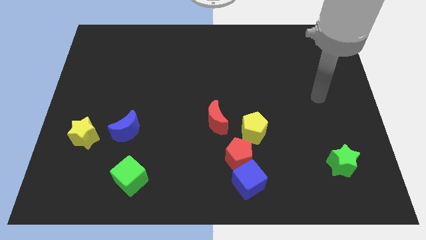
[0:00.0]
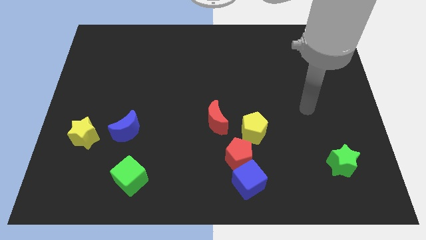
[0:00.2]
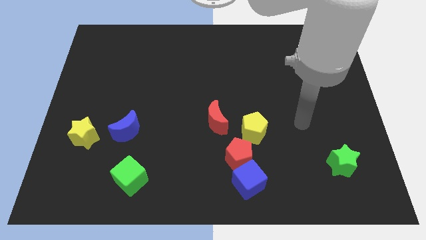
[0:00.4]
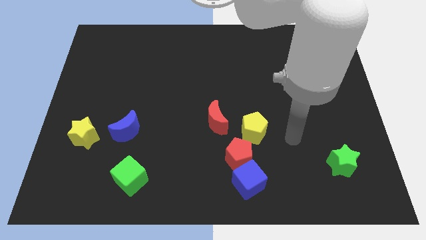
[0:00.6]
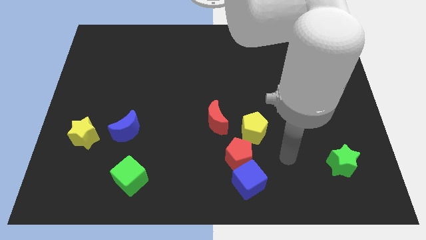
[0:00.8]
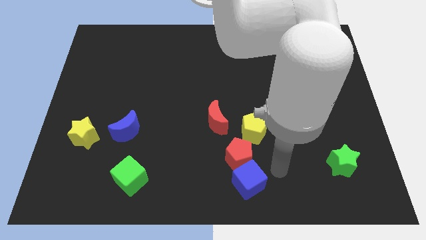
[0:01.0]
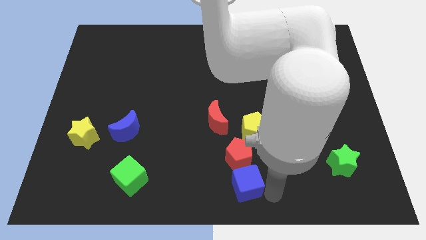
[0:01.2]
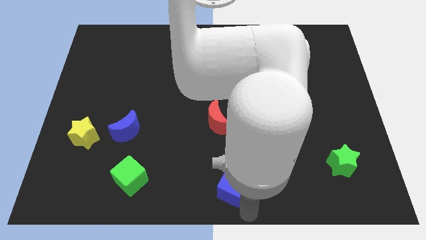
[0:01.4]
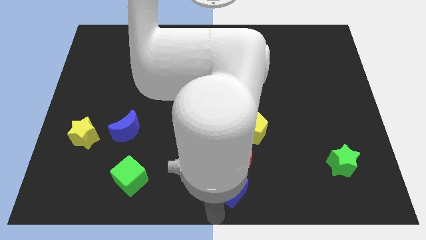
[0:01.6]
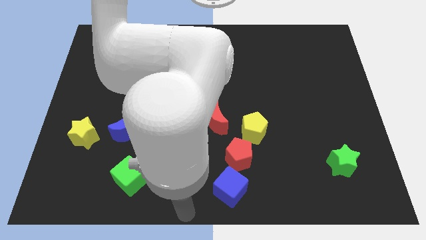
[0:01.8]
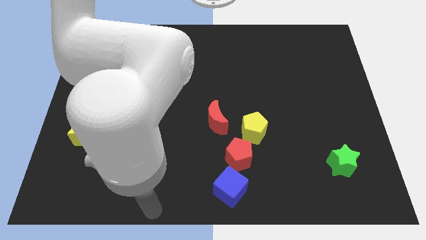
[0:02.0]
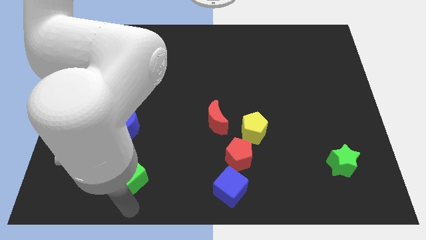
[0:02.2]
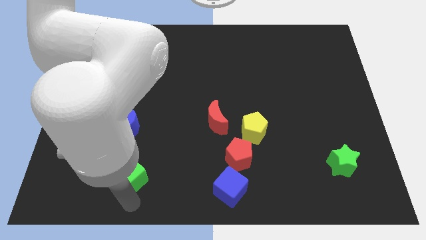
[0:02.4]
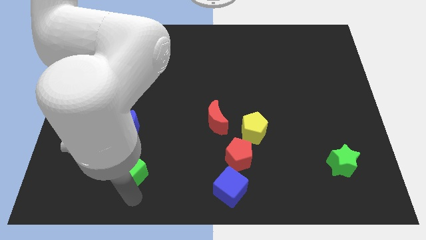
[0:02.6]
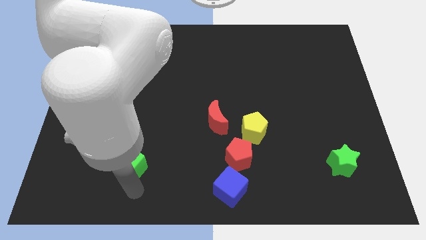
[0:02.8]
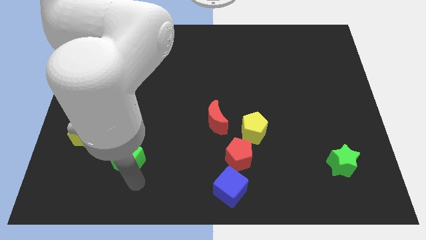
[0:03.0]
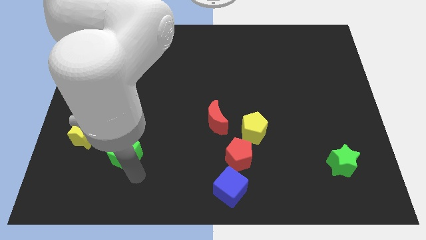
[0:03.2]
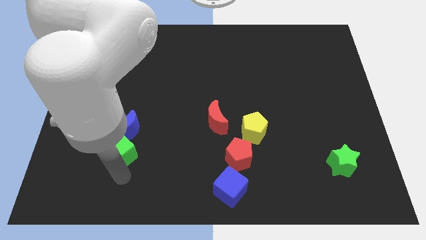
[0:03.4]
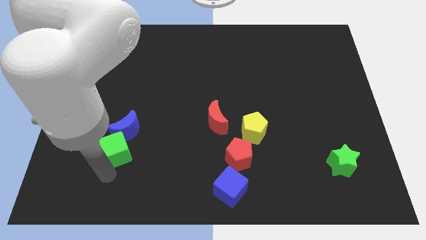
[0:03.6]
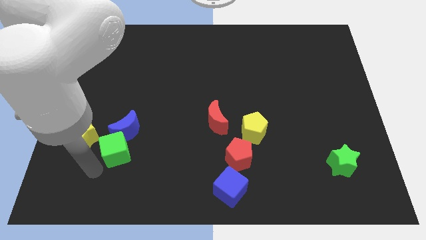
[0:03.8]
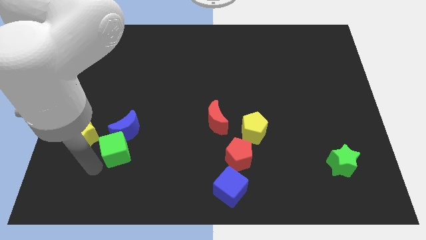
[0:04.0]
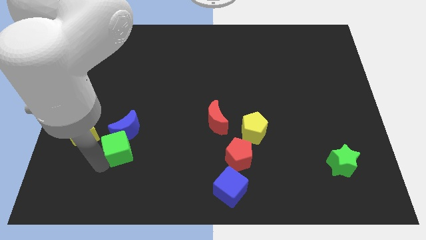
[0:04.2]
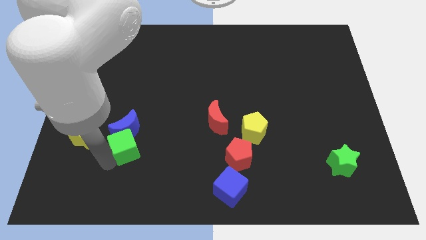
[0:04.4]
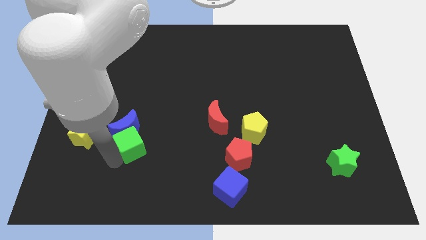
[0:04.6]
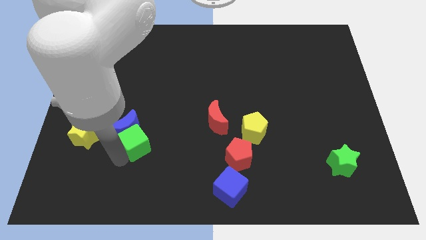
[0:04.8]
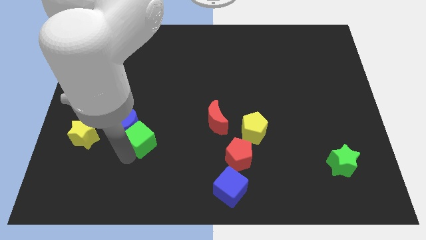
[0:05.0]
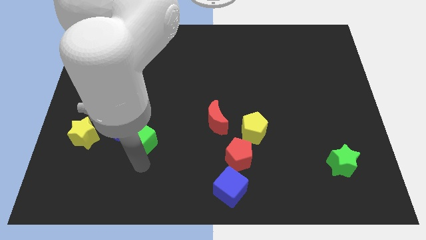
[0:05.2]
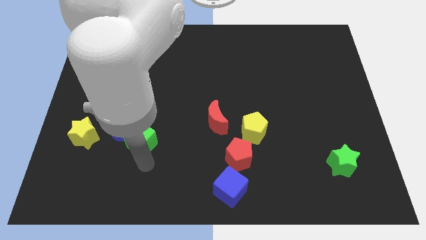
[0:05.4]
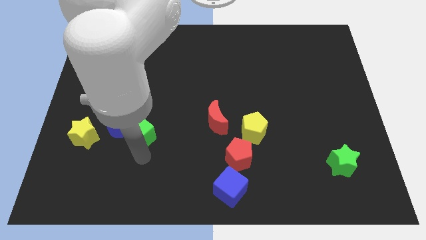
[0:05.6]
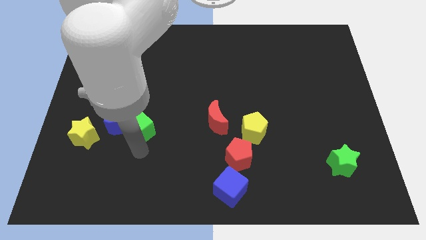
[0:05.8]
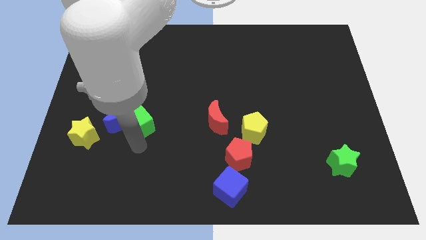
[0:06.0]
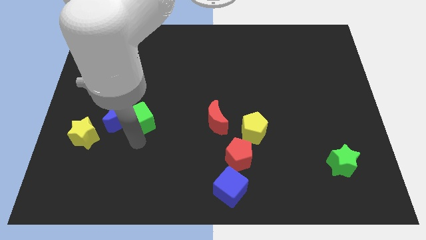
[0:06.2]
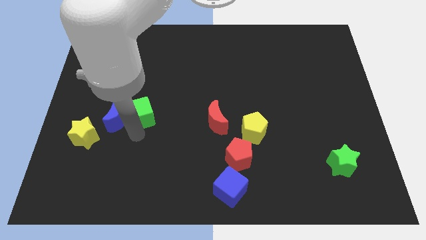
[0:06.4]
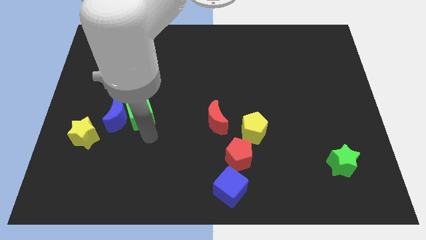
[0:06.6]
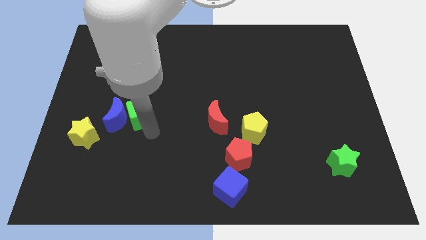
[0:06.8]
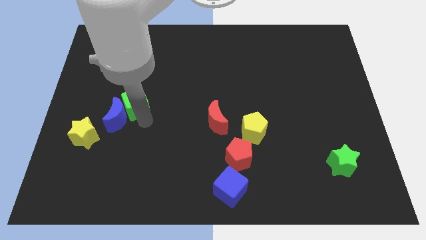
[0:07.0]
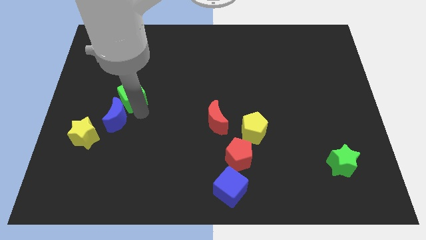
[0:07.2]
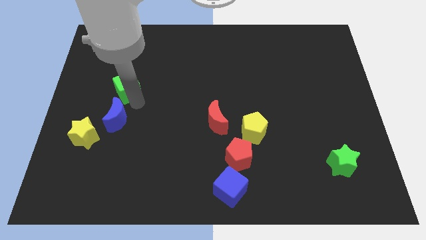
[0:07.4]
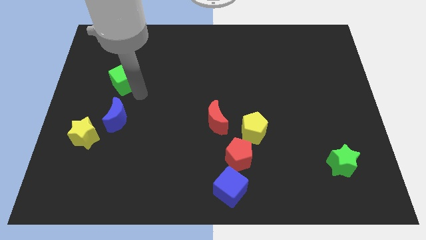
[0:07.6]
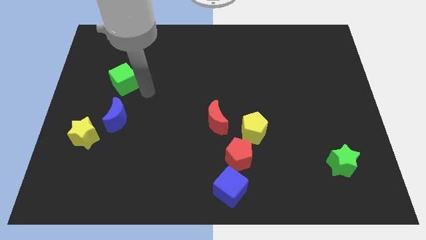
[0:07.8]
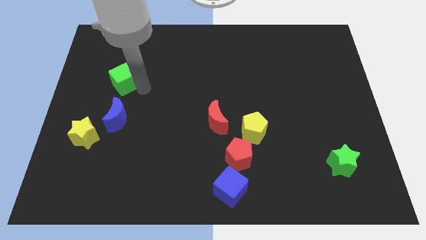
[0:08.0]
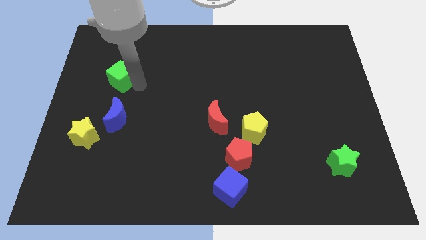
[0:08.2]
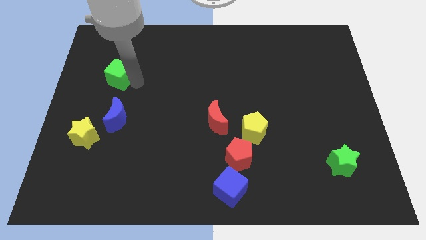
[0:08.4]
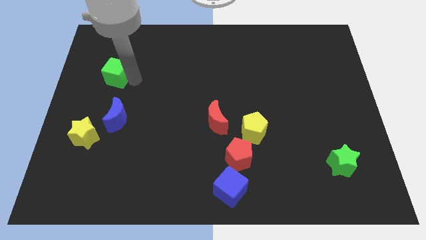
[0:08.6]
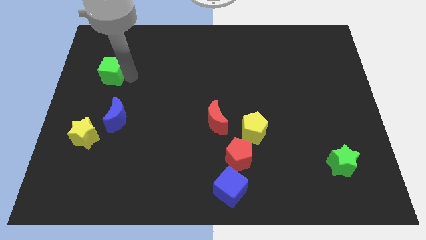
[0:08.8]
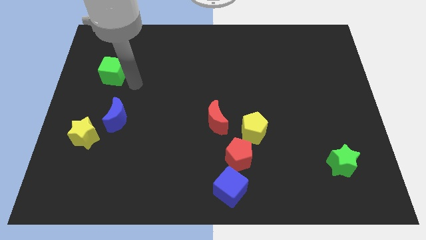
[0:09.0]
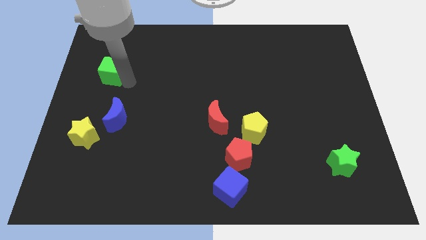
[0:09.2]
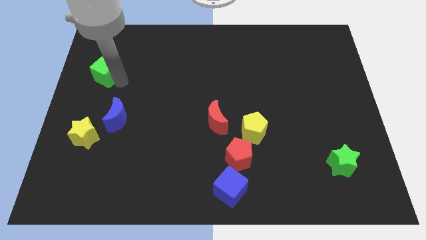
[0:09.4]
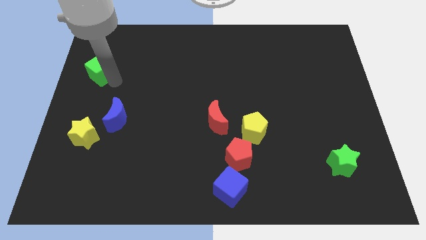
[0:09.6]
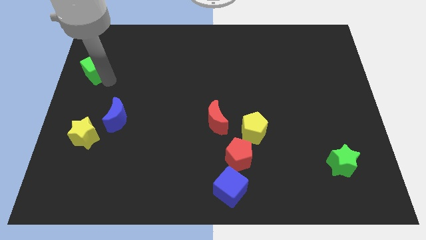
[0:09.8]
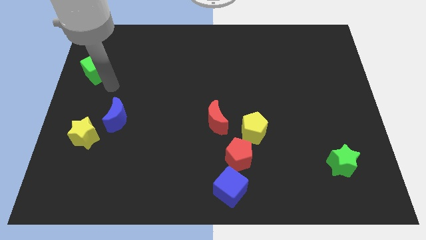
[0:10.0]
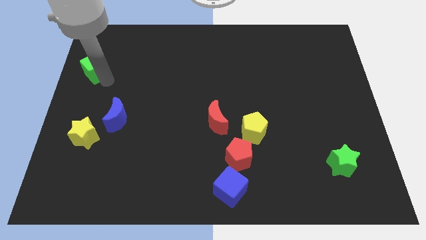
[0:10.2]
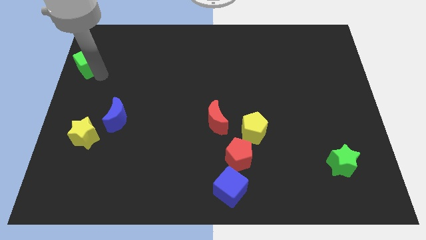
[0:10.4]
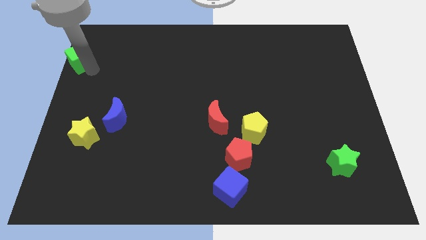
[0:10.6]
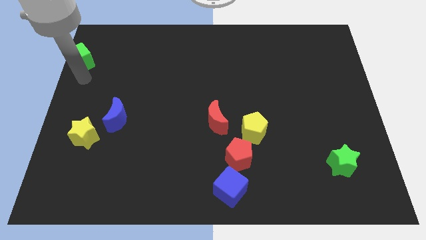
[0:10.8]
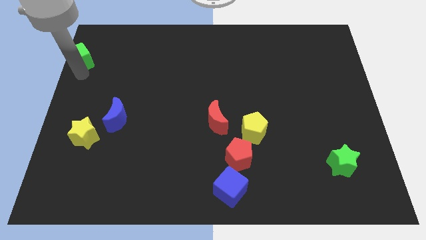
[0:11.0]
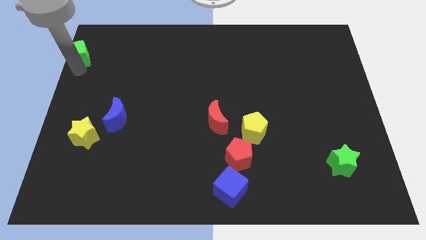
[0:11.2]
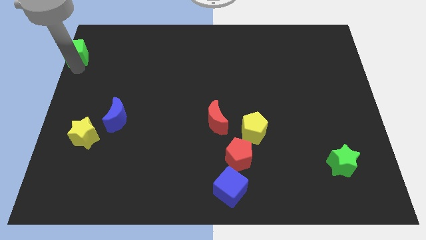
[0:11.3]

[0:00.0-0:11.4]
put the green cube to the top left

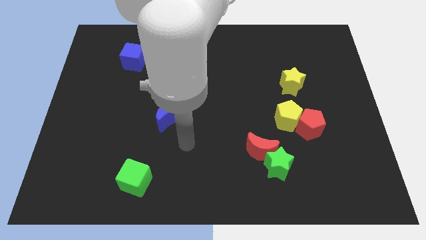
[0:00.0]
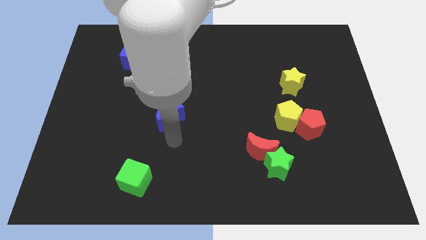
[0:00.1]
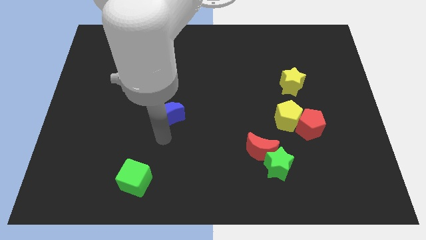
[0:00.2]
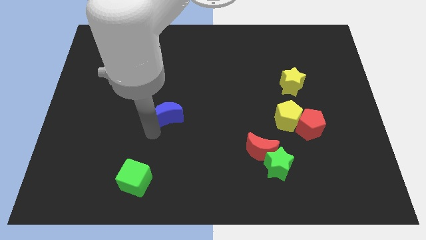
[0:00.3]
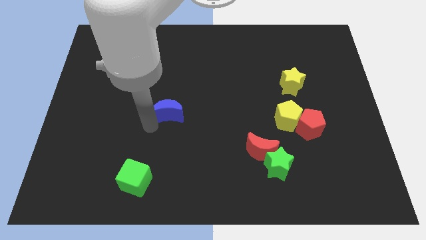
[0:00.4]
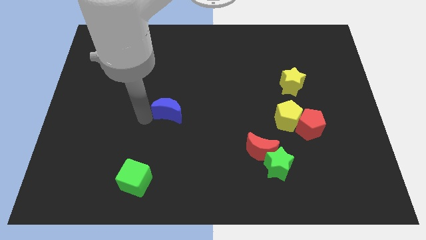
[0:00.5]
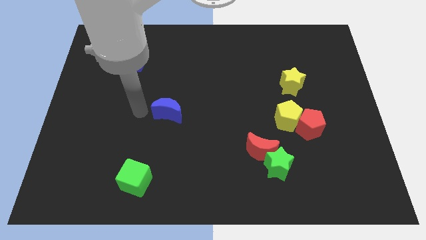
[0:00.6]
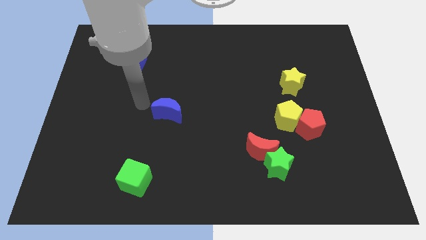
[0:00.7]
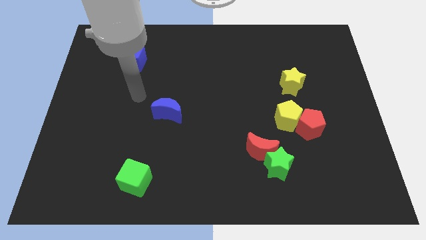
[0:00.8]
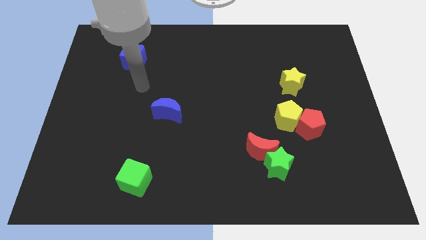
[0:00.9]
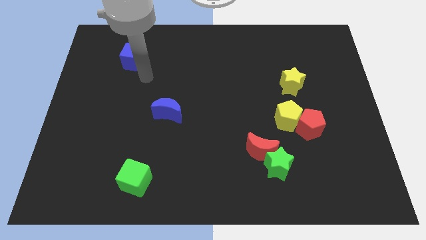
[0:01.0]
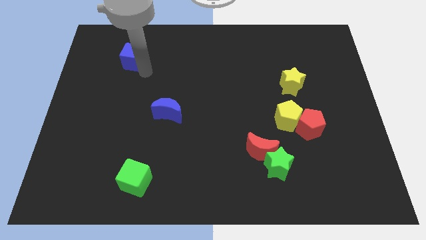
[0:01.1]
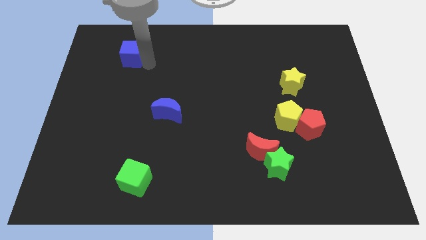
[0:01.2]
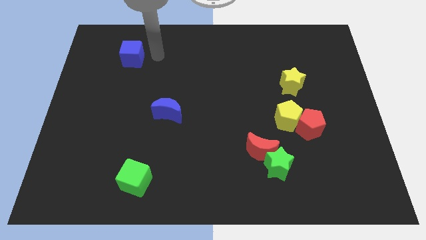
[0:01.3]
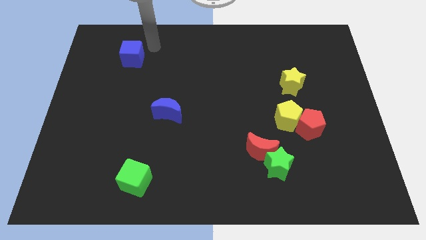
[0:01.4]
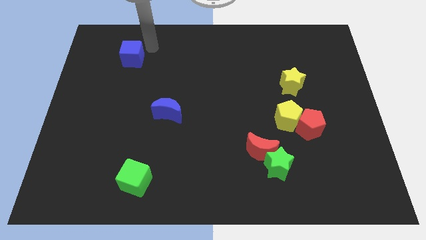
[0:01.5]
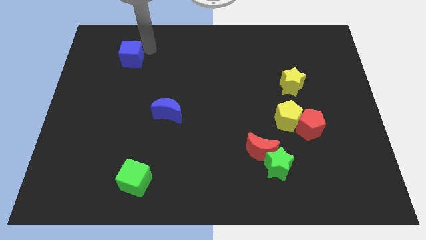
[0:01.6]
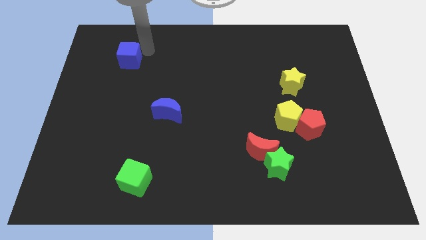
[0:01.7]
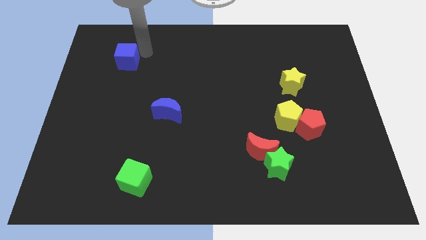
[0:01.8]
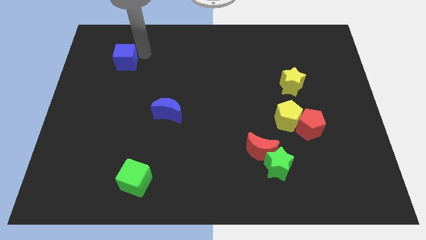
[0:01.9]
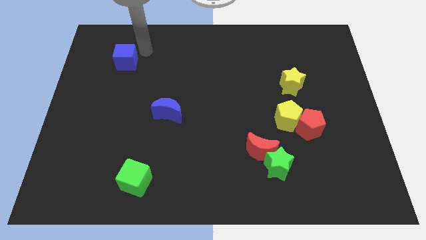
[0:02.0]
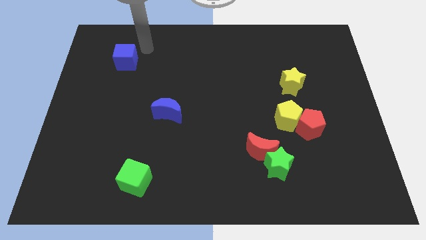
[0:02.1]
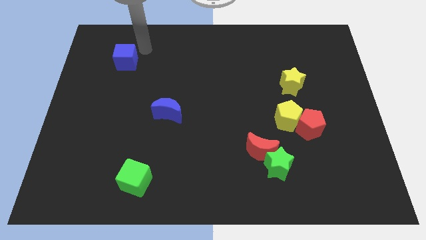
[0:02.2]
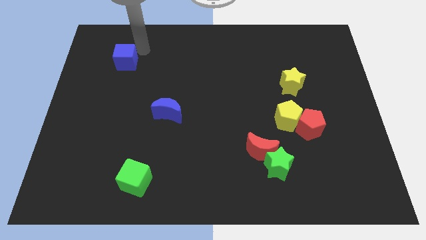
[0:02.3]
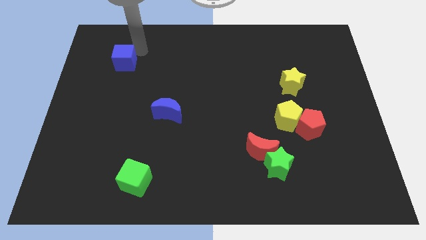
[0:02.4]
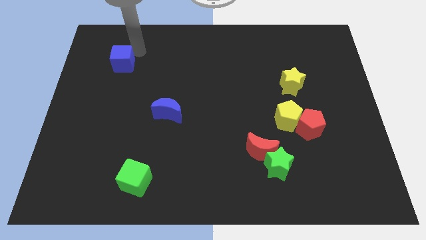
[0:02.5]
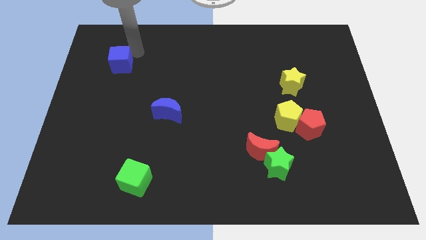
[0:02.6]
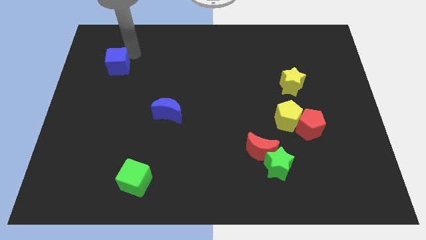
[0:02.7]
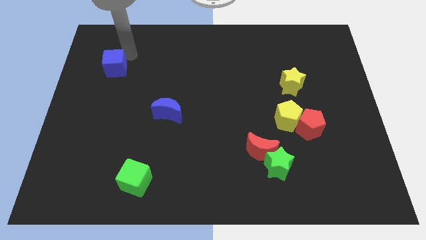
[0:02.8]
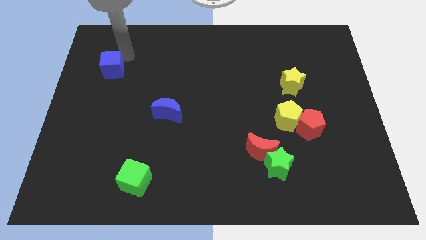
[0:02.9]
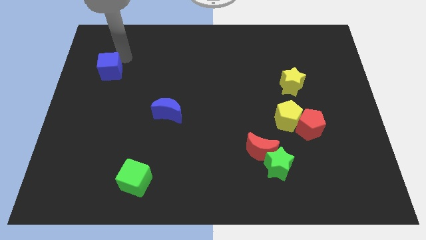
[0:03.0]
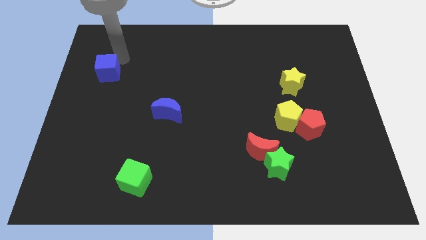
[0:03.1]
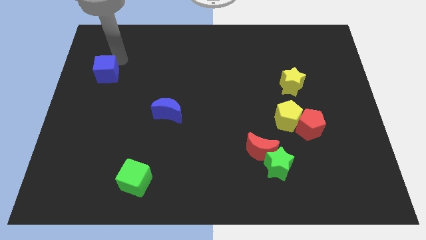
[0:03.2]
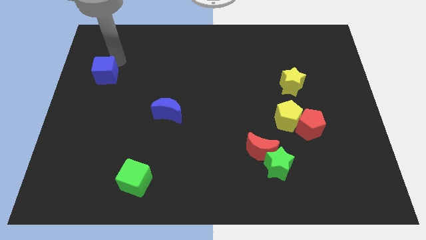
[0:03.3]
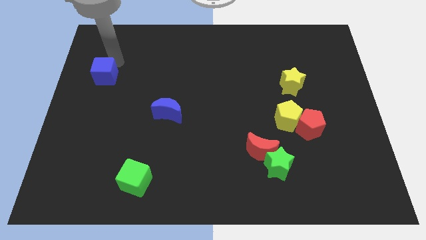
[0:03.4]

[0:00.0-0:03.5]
move the blue cube to the center left
